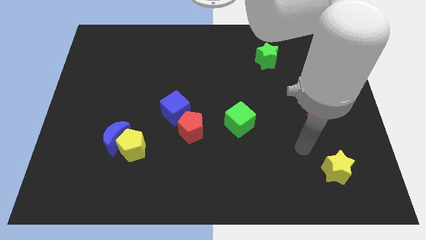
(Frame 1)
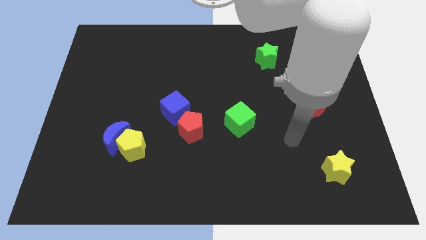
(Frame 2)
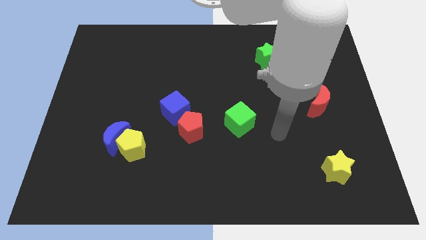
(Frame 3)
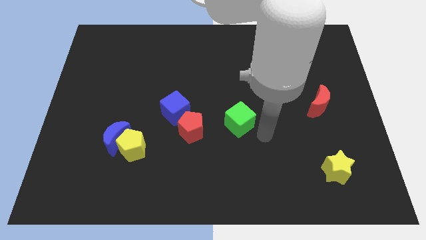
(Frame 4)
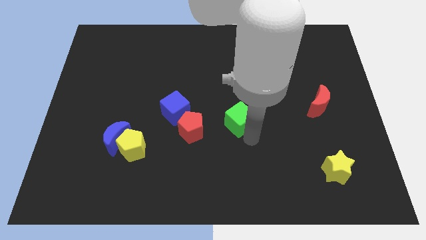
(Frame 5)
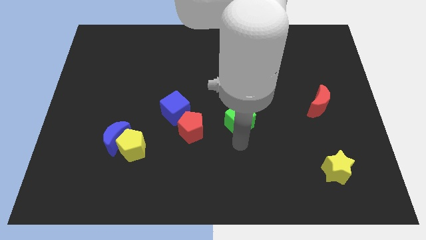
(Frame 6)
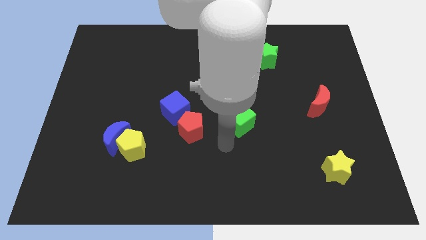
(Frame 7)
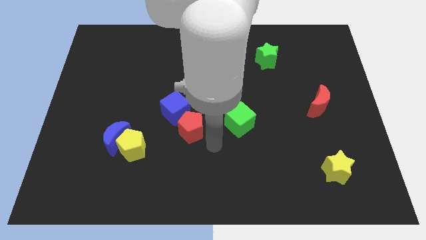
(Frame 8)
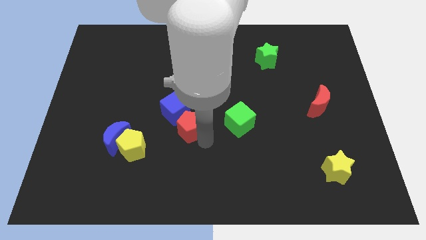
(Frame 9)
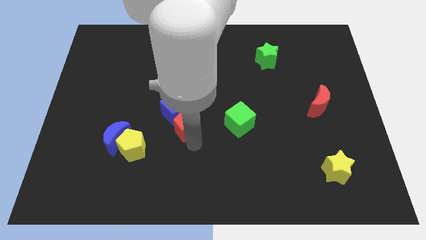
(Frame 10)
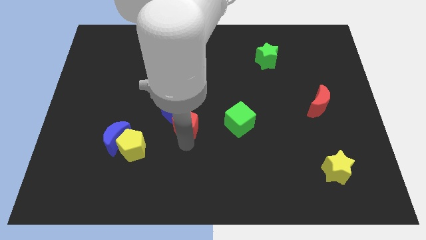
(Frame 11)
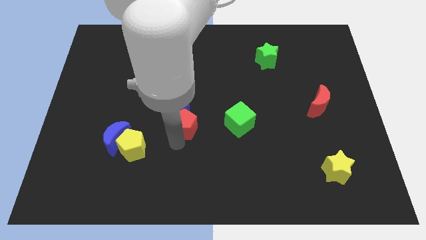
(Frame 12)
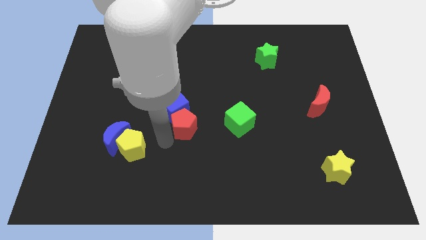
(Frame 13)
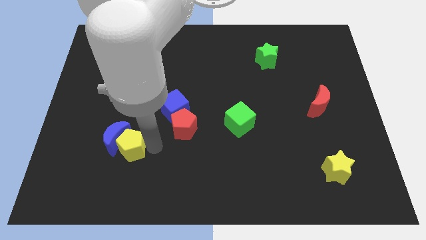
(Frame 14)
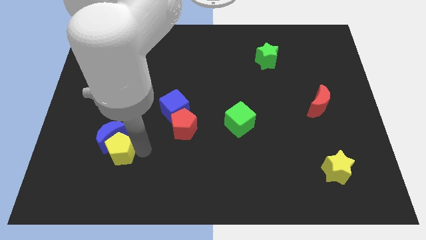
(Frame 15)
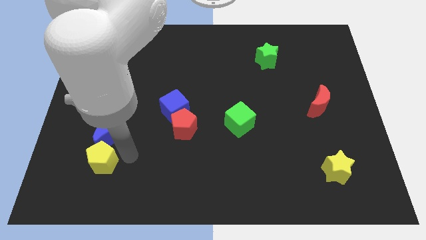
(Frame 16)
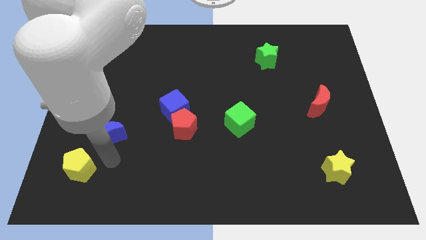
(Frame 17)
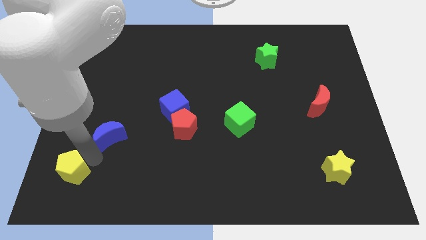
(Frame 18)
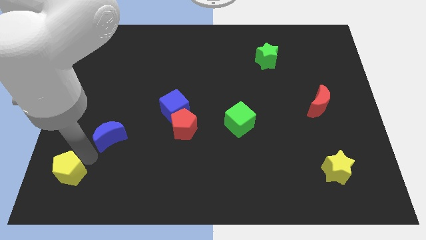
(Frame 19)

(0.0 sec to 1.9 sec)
pull the blue moon apart from the yellow pentagon

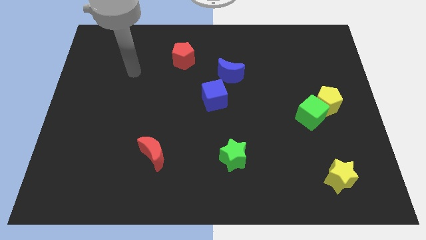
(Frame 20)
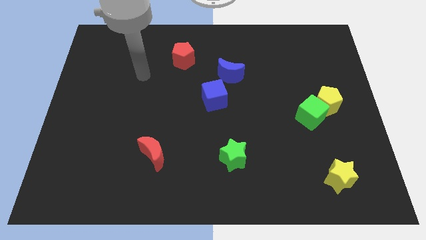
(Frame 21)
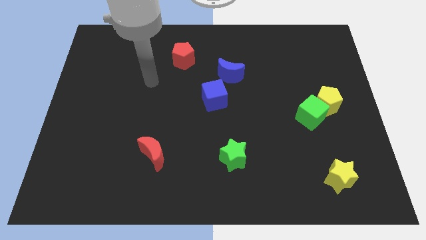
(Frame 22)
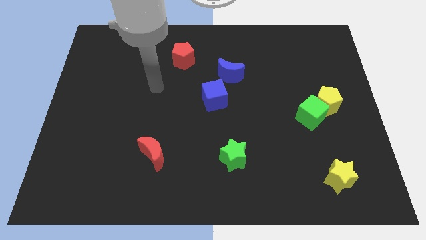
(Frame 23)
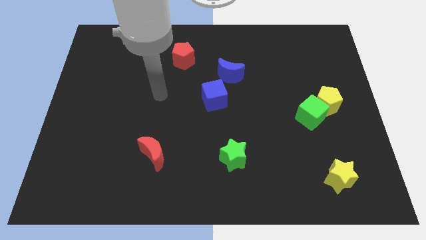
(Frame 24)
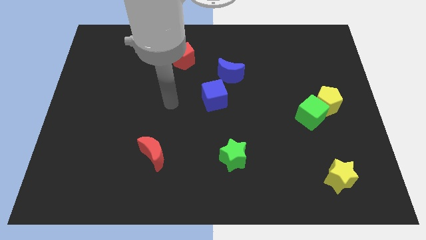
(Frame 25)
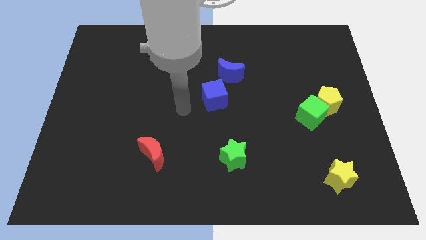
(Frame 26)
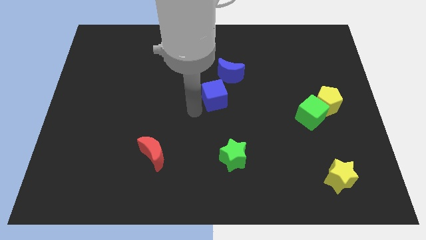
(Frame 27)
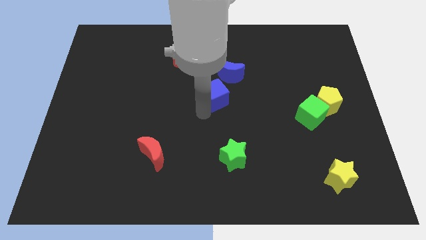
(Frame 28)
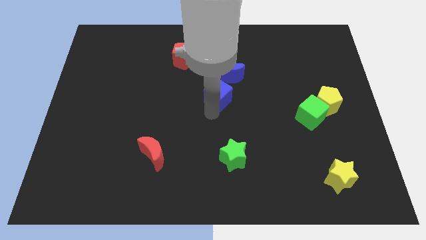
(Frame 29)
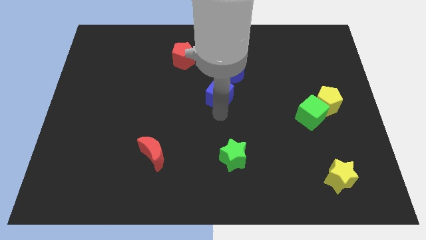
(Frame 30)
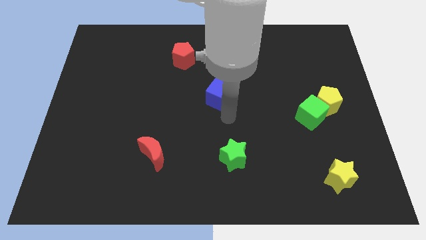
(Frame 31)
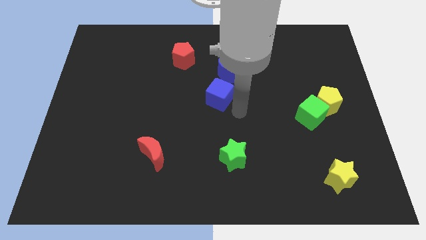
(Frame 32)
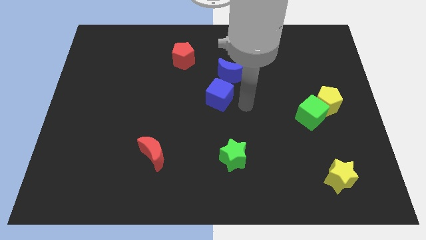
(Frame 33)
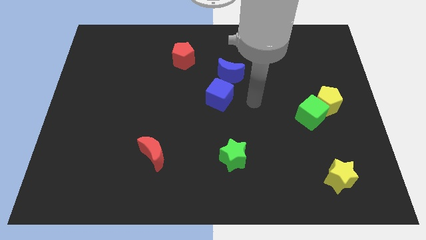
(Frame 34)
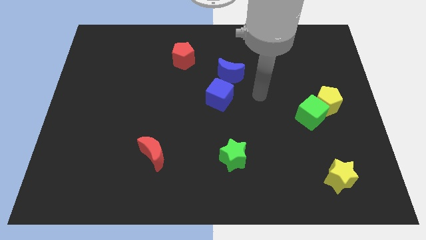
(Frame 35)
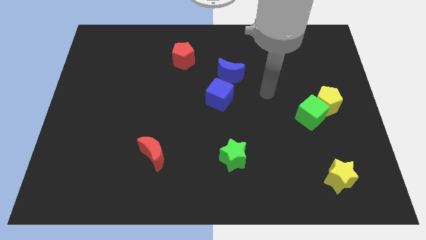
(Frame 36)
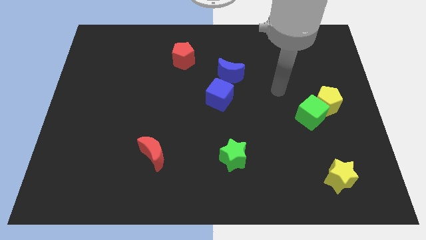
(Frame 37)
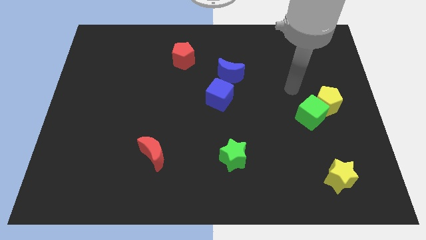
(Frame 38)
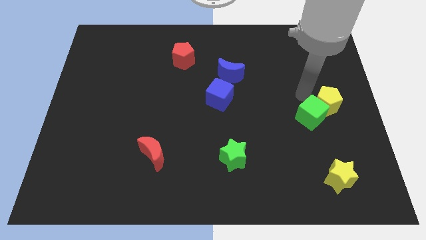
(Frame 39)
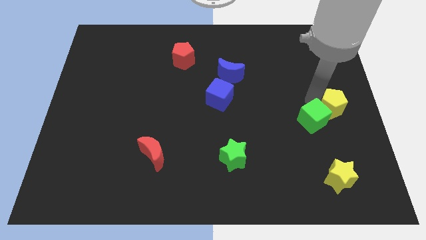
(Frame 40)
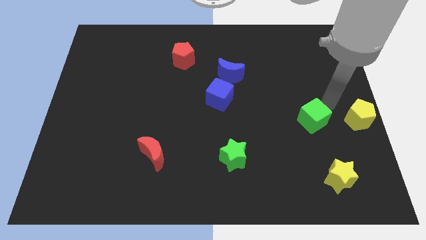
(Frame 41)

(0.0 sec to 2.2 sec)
move the green cube away from the yellow pentagon

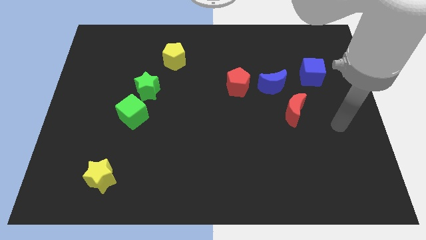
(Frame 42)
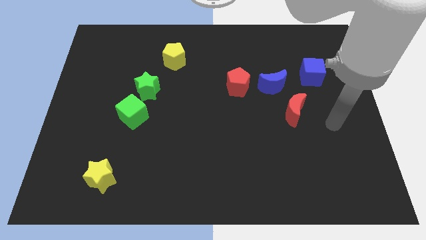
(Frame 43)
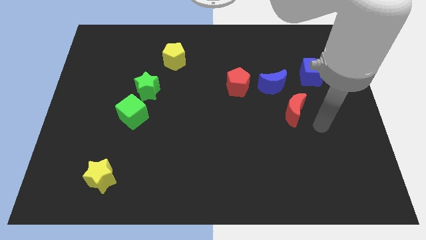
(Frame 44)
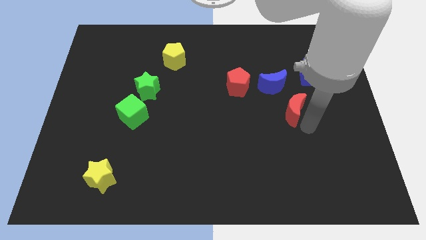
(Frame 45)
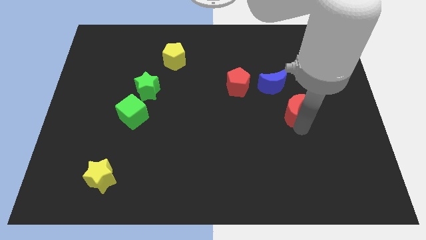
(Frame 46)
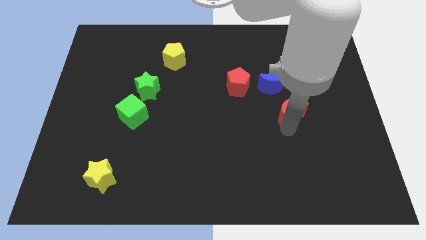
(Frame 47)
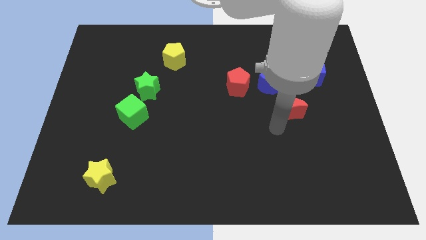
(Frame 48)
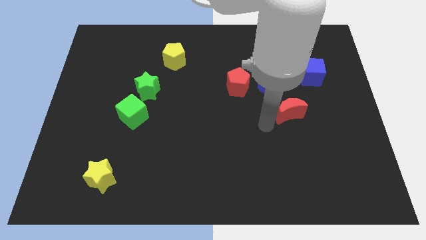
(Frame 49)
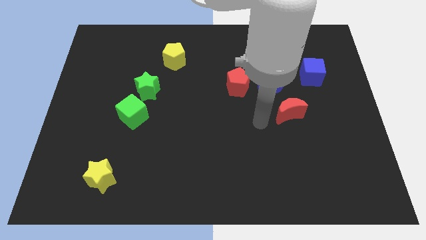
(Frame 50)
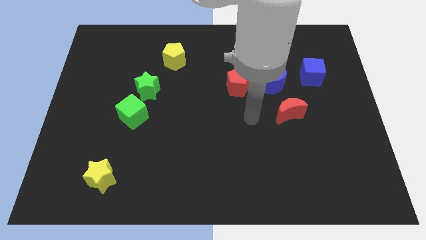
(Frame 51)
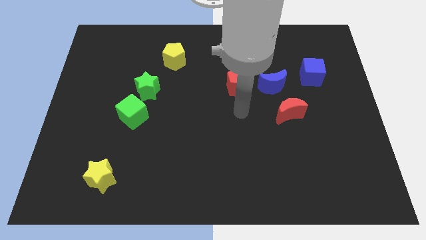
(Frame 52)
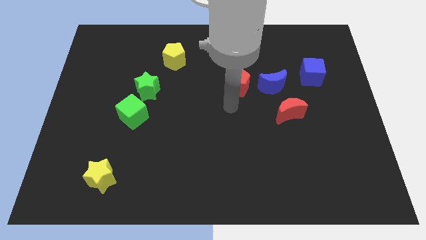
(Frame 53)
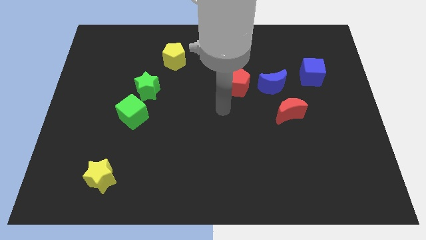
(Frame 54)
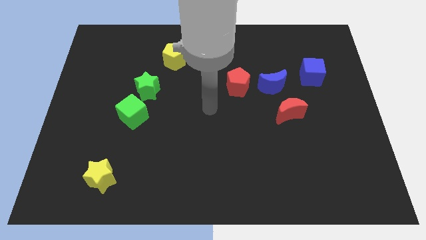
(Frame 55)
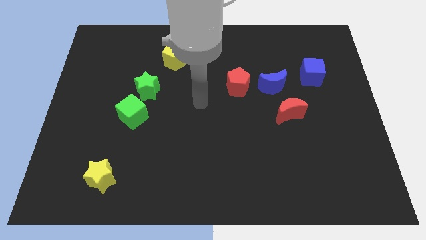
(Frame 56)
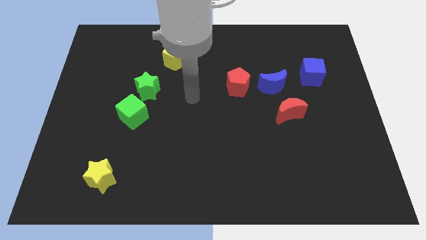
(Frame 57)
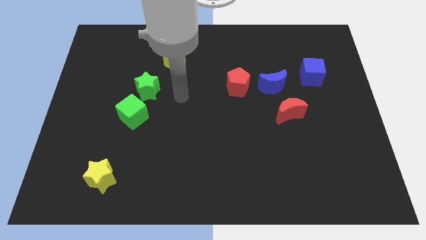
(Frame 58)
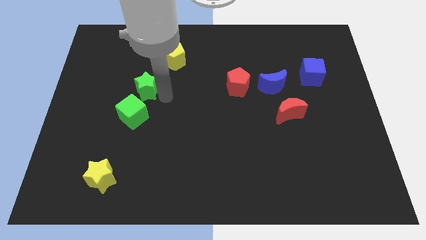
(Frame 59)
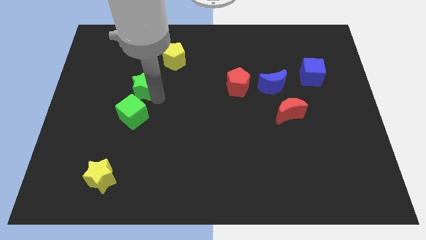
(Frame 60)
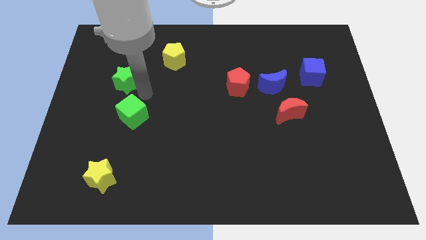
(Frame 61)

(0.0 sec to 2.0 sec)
move the green cube away from the green star

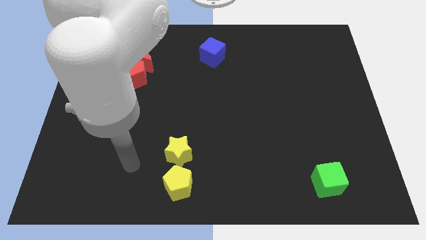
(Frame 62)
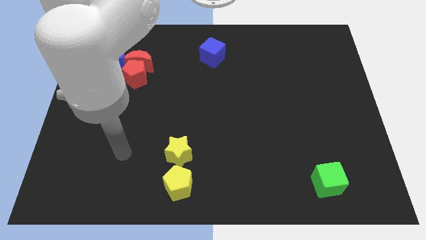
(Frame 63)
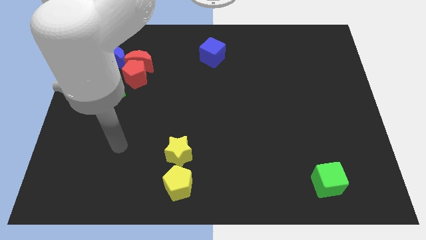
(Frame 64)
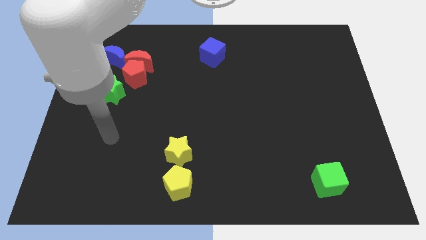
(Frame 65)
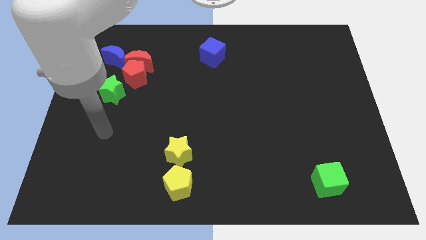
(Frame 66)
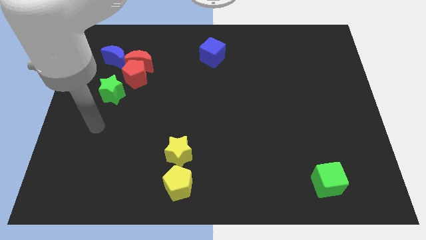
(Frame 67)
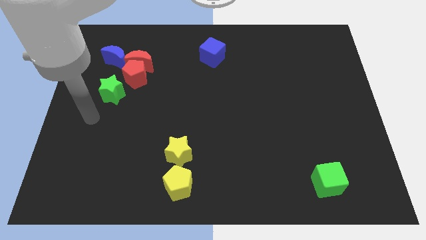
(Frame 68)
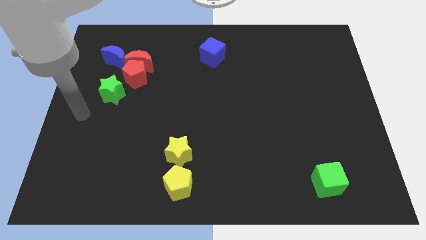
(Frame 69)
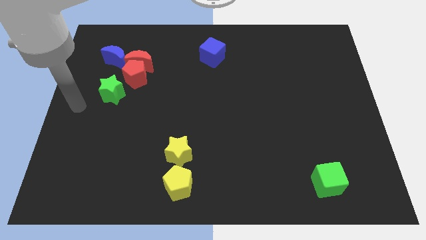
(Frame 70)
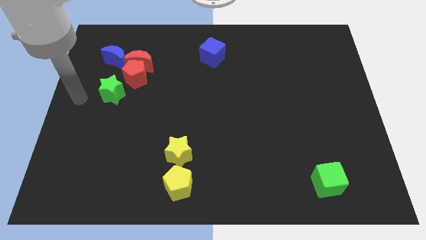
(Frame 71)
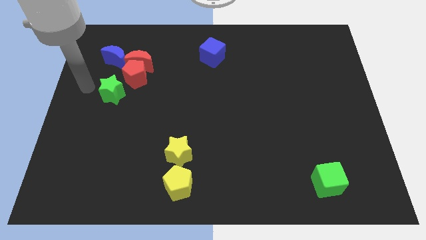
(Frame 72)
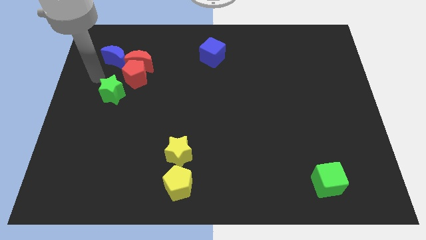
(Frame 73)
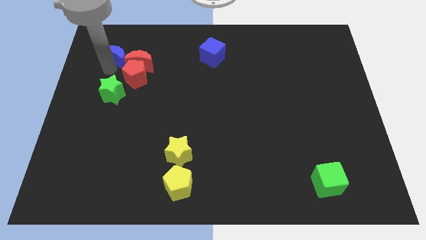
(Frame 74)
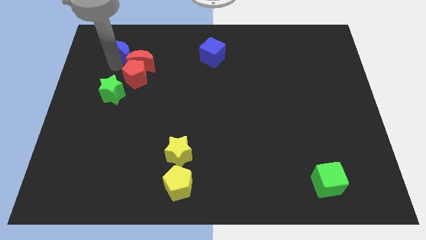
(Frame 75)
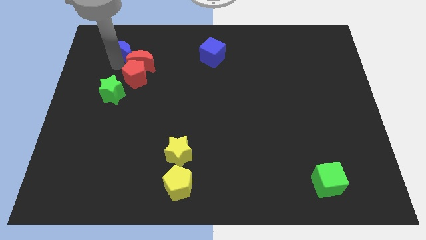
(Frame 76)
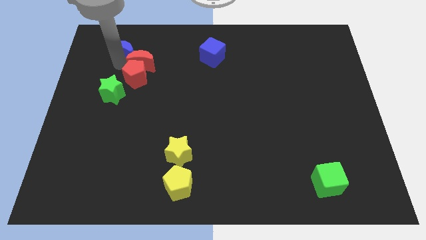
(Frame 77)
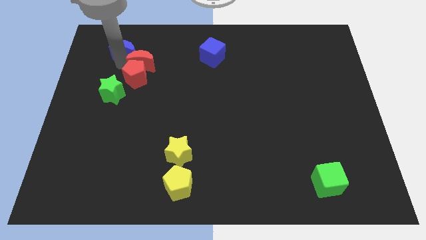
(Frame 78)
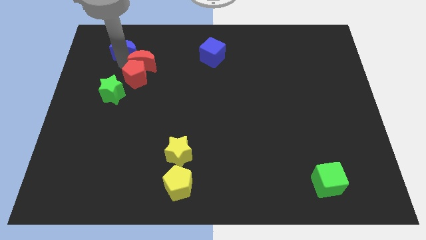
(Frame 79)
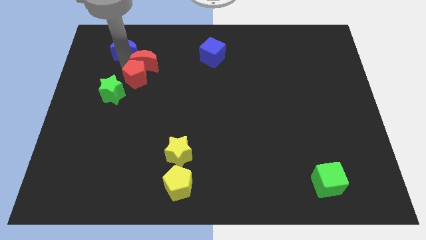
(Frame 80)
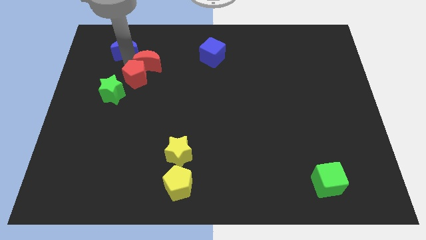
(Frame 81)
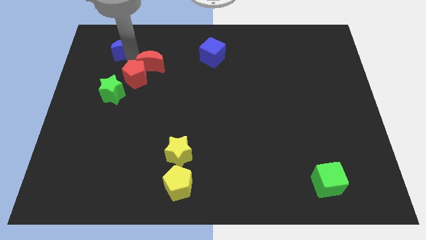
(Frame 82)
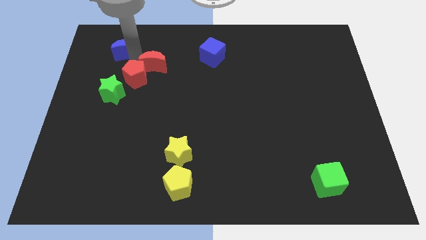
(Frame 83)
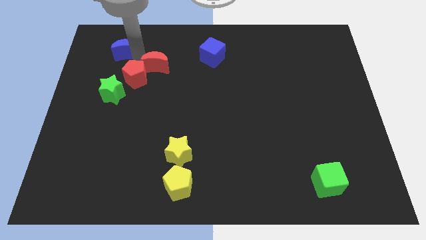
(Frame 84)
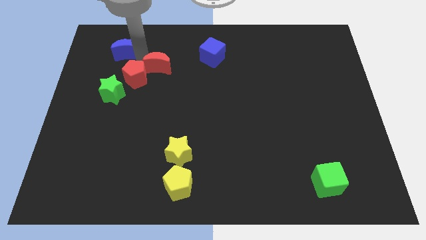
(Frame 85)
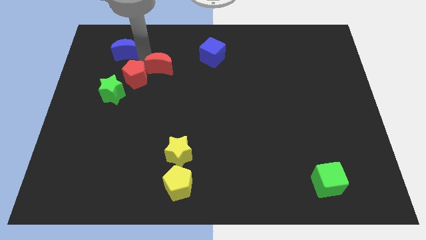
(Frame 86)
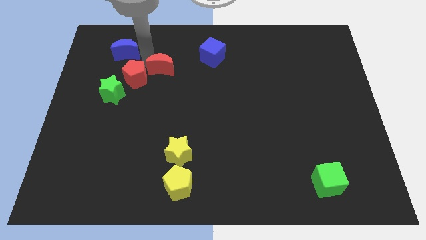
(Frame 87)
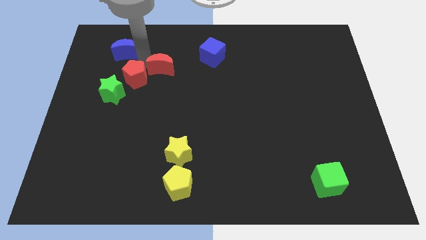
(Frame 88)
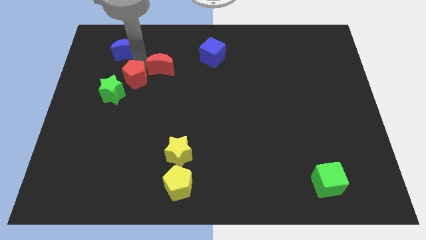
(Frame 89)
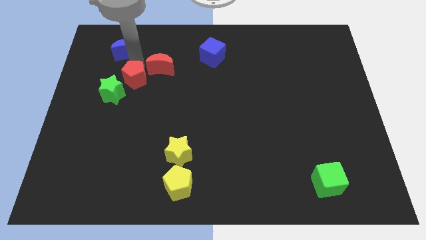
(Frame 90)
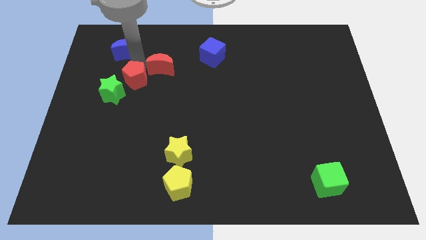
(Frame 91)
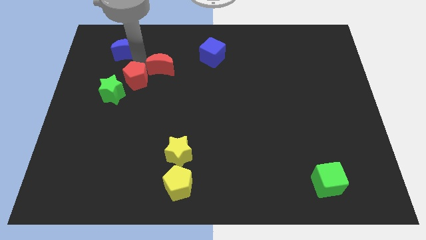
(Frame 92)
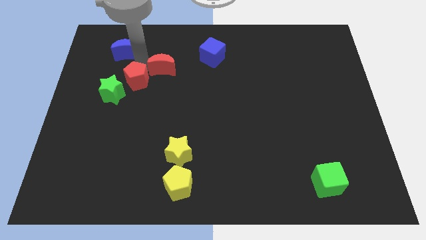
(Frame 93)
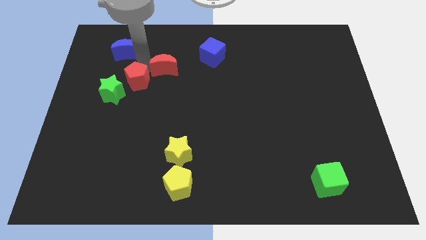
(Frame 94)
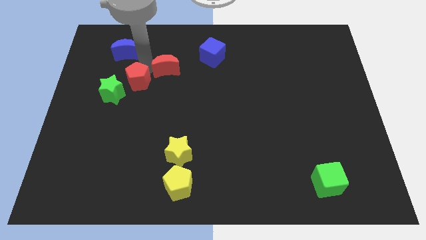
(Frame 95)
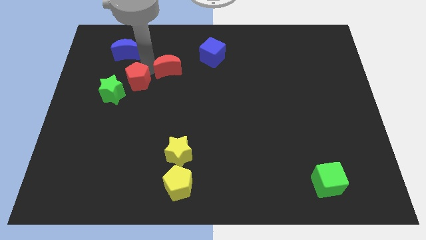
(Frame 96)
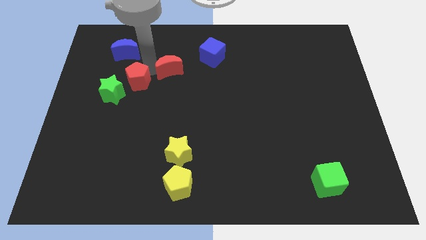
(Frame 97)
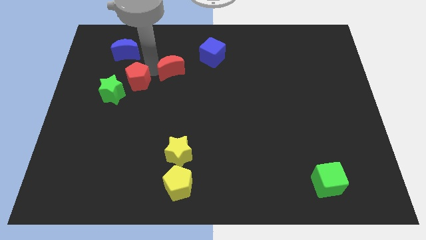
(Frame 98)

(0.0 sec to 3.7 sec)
move the red moon away from the red pentagon and blue moon
